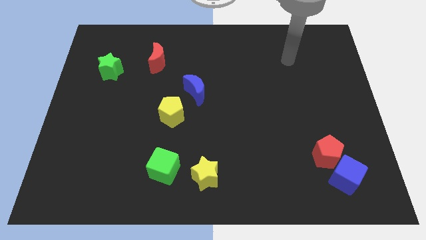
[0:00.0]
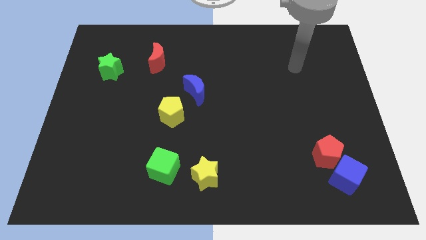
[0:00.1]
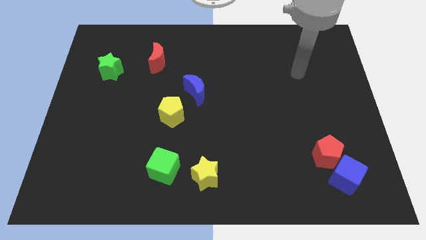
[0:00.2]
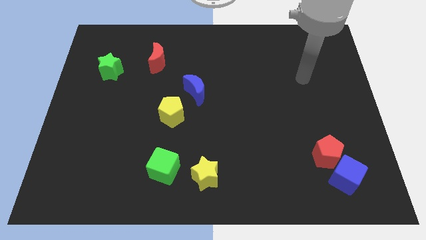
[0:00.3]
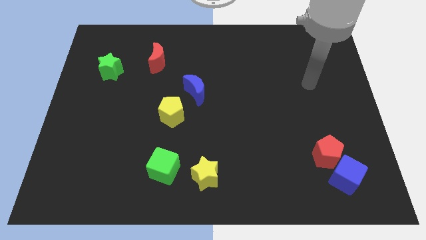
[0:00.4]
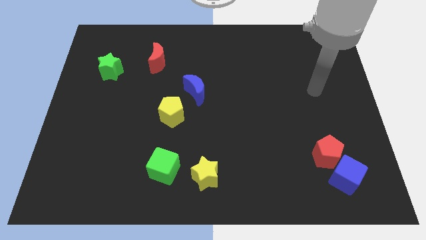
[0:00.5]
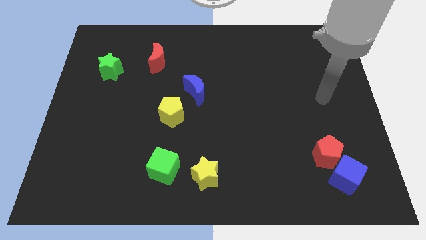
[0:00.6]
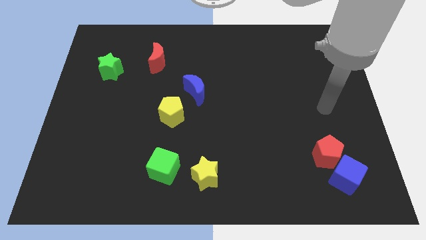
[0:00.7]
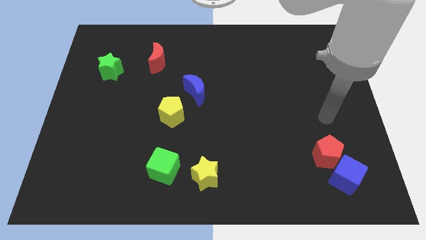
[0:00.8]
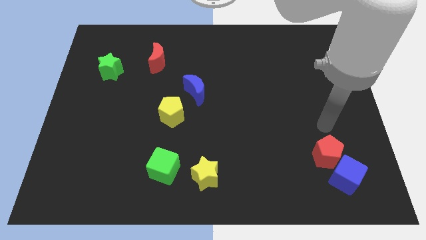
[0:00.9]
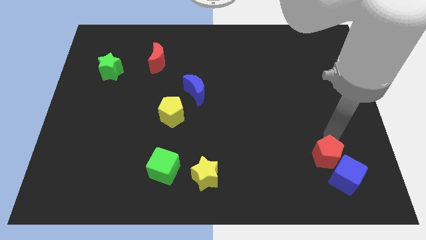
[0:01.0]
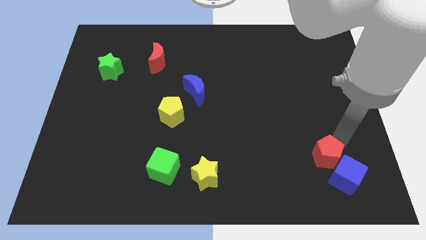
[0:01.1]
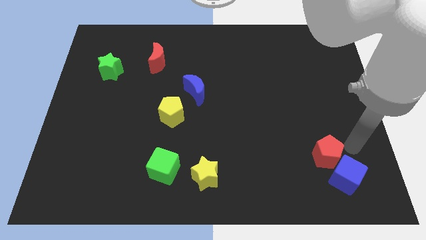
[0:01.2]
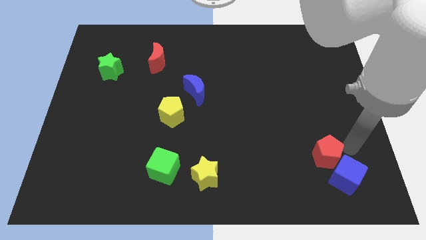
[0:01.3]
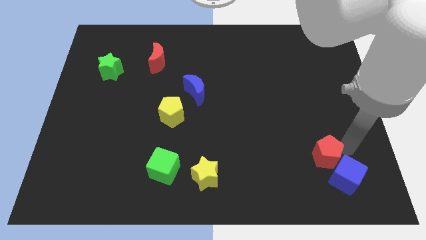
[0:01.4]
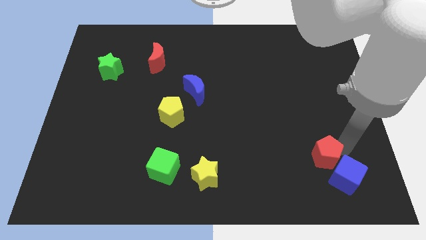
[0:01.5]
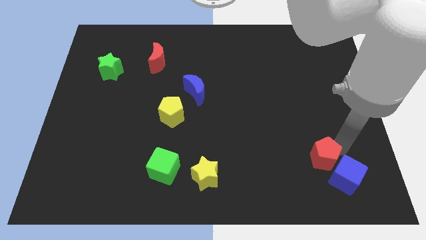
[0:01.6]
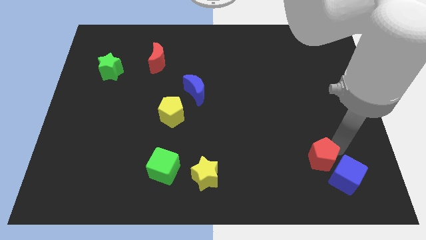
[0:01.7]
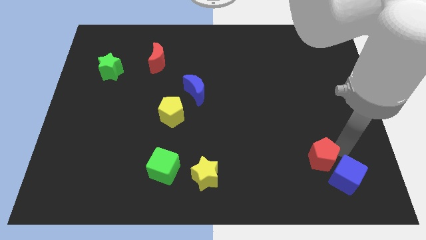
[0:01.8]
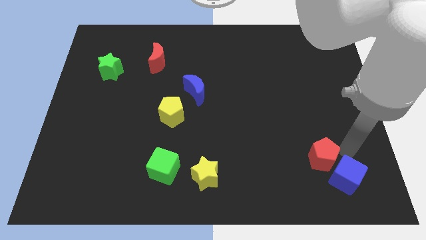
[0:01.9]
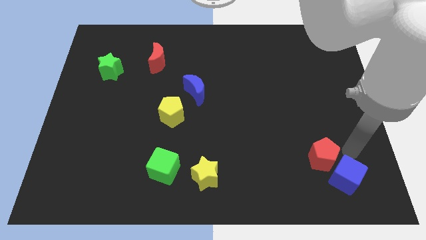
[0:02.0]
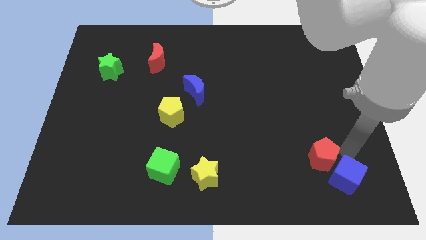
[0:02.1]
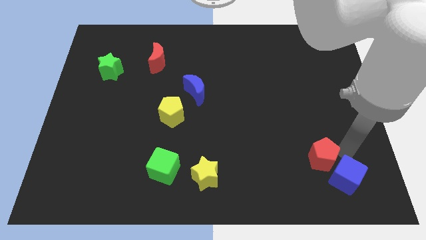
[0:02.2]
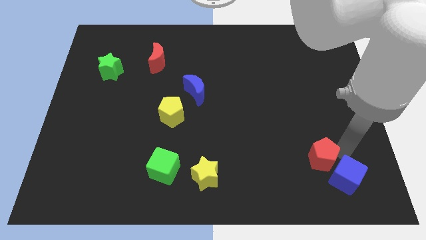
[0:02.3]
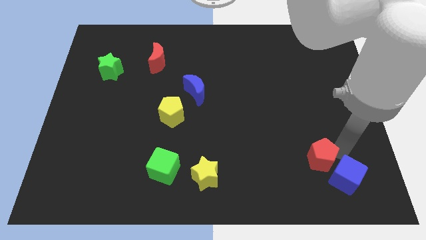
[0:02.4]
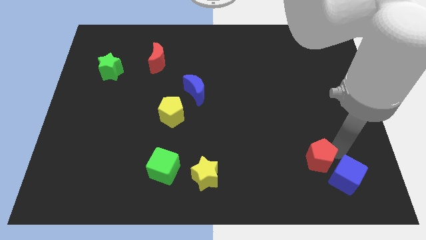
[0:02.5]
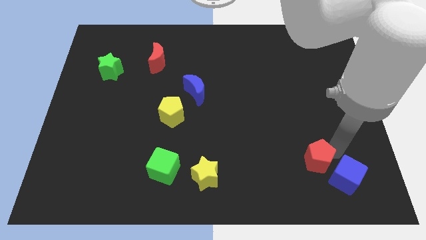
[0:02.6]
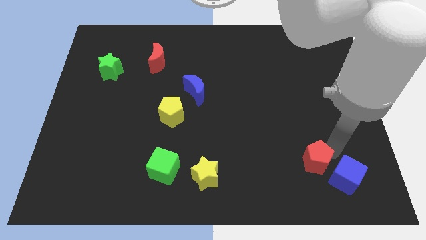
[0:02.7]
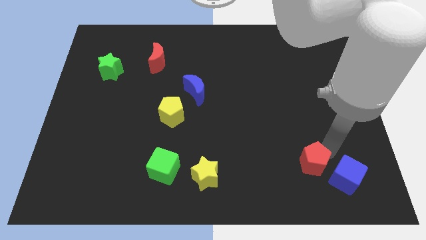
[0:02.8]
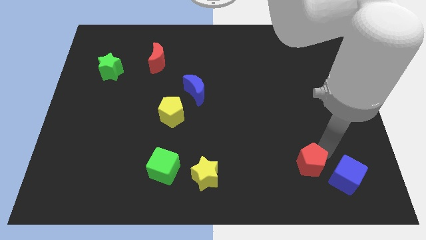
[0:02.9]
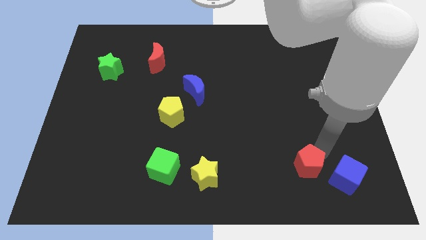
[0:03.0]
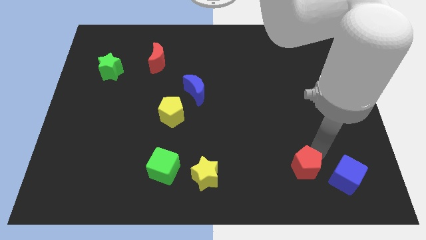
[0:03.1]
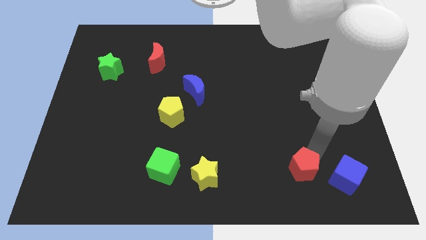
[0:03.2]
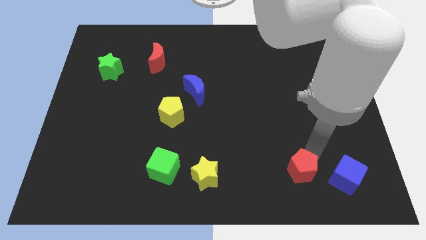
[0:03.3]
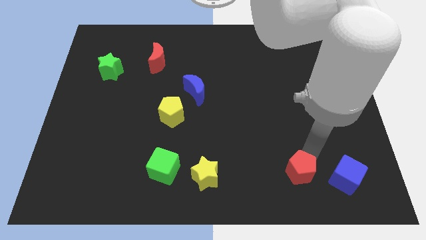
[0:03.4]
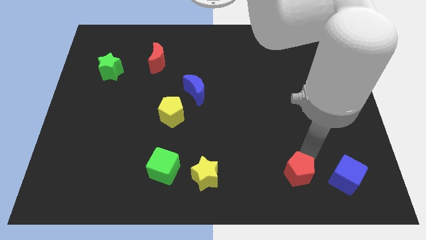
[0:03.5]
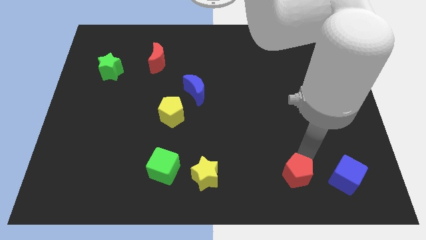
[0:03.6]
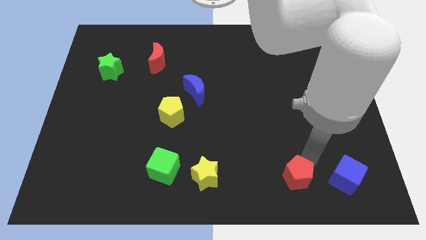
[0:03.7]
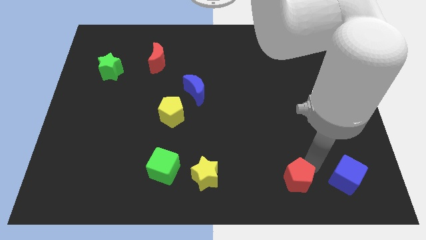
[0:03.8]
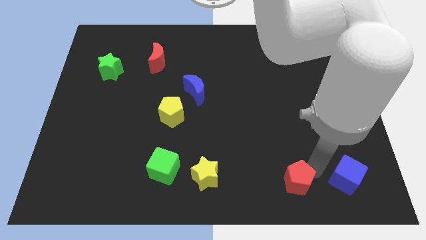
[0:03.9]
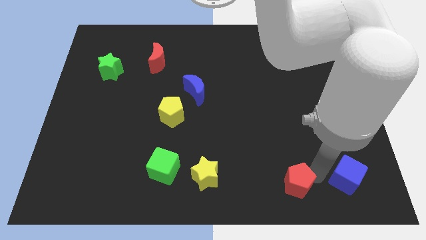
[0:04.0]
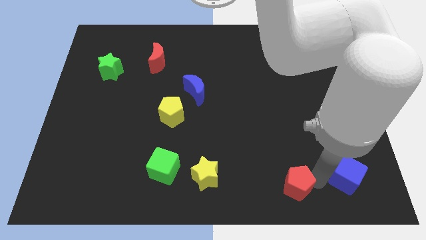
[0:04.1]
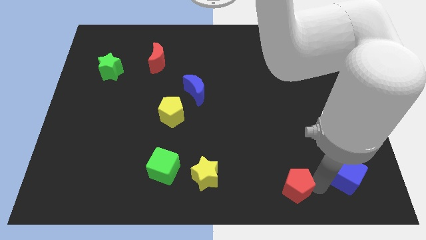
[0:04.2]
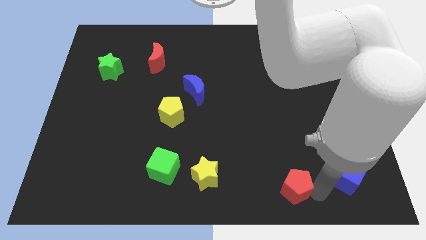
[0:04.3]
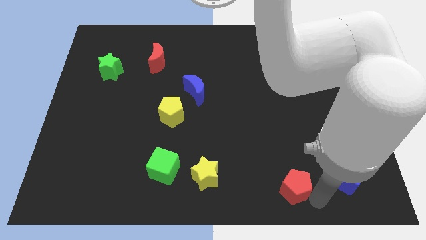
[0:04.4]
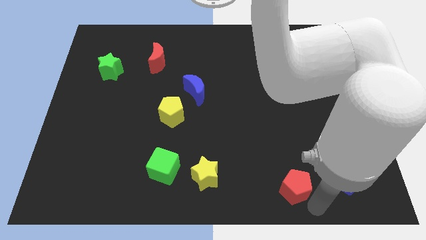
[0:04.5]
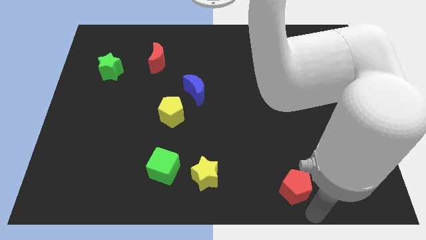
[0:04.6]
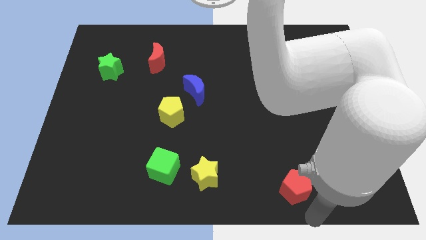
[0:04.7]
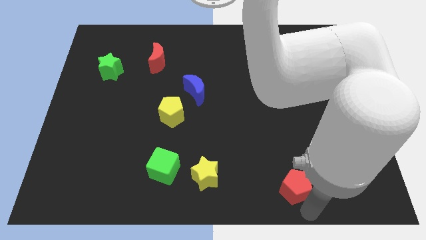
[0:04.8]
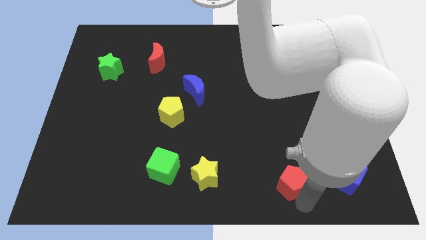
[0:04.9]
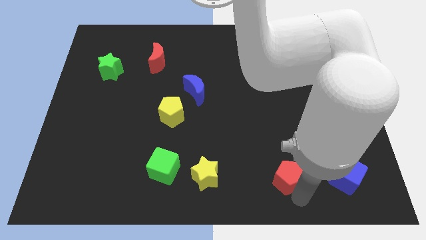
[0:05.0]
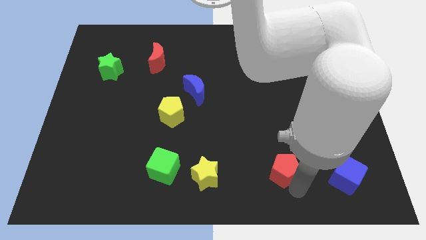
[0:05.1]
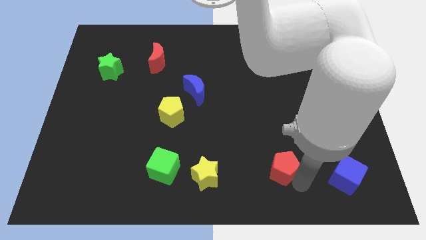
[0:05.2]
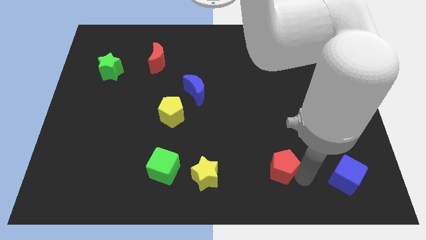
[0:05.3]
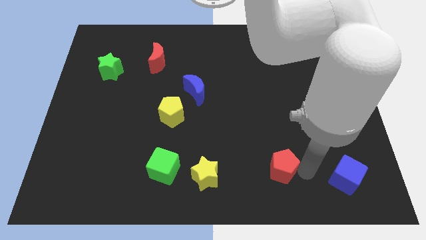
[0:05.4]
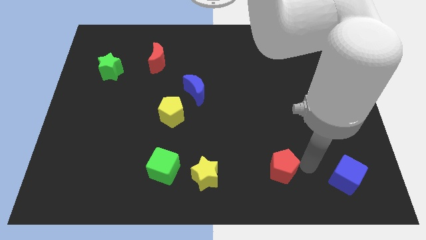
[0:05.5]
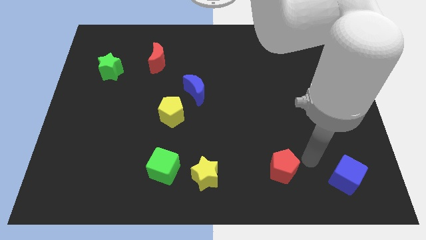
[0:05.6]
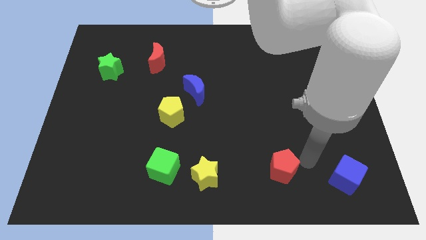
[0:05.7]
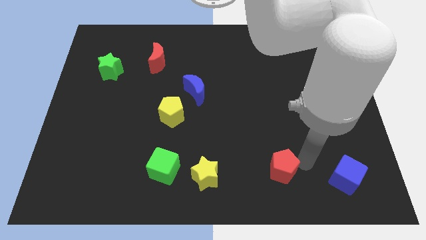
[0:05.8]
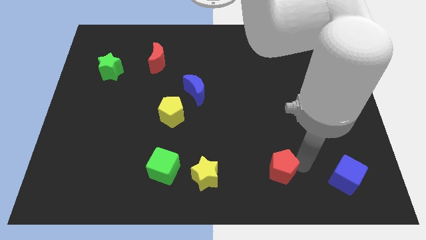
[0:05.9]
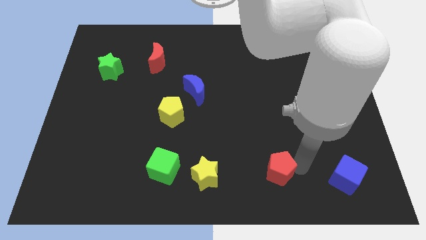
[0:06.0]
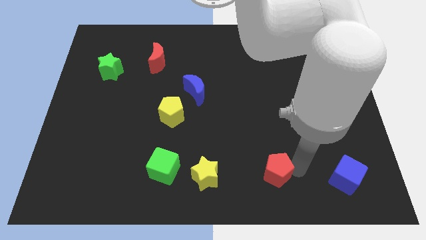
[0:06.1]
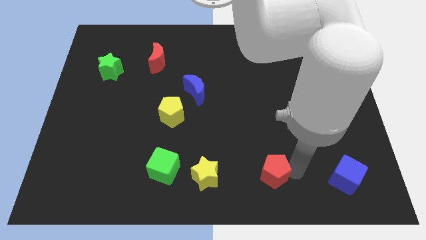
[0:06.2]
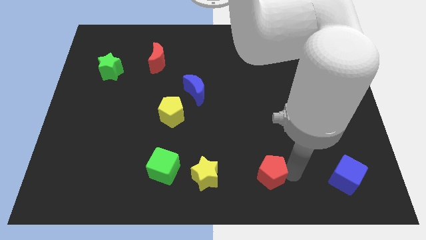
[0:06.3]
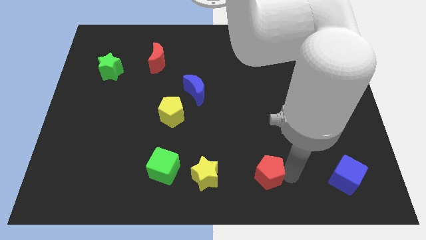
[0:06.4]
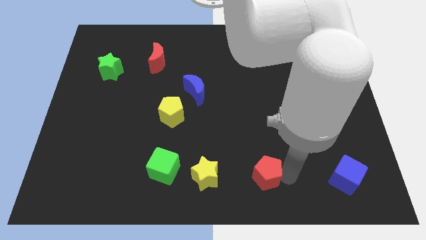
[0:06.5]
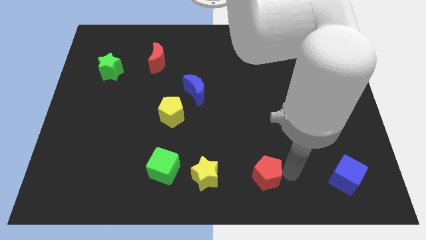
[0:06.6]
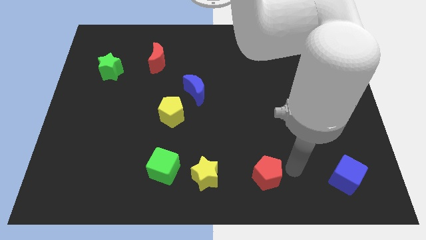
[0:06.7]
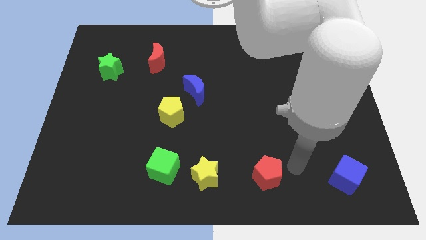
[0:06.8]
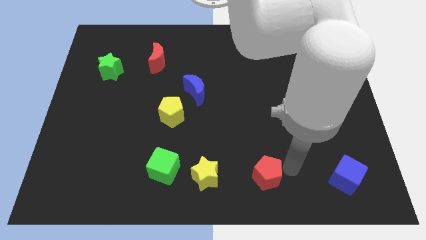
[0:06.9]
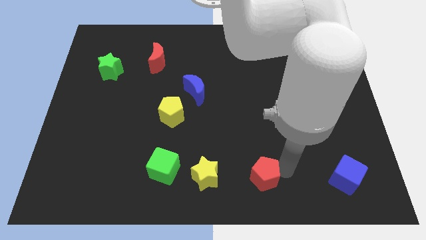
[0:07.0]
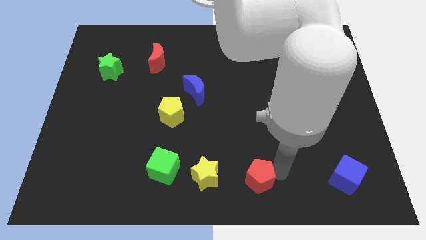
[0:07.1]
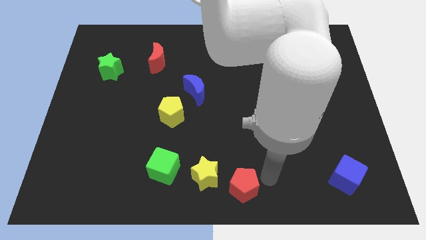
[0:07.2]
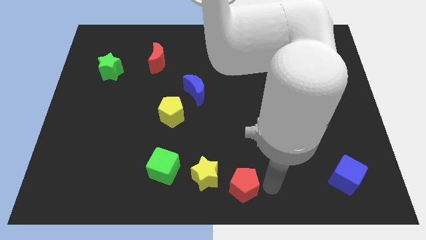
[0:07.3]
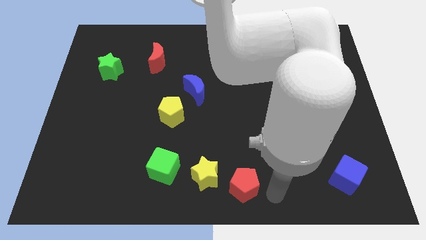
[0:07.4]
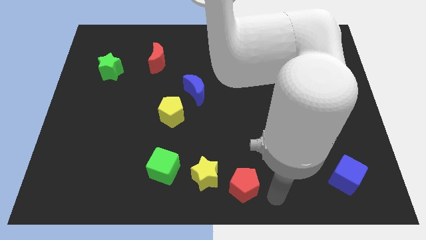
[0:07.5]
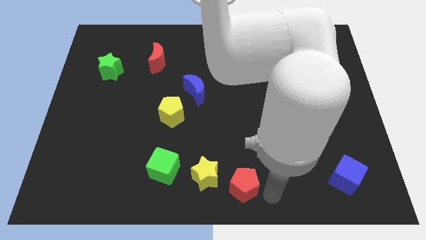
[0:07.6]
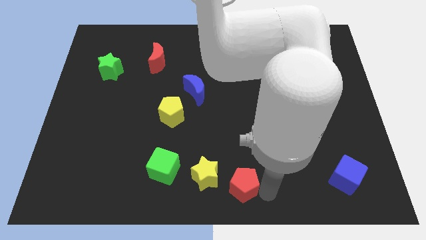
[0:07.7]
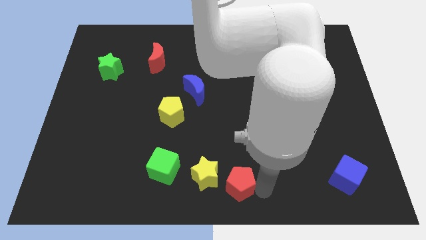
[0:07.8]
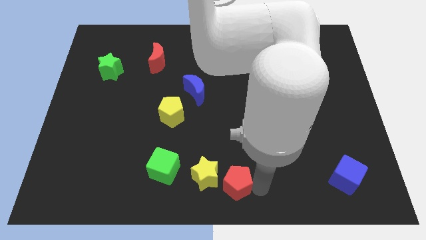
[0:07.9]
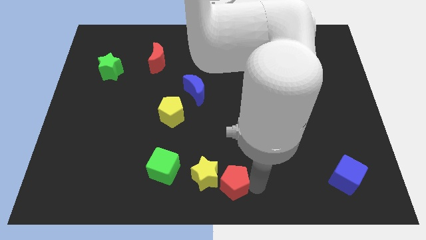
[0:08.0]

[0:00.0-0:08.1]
put the red pentagon towards the yellow star
